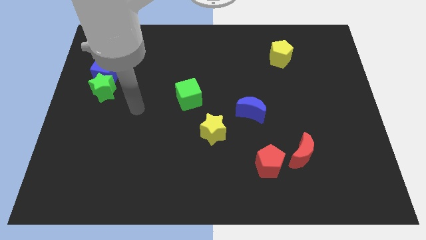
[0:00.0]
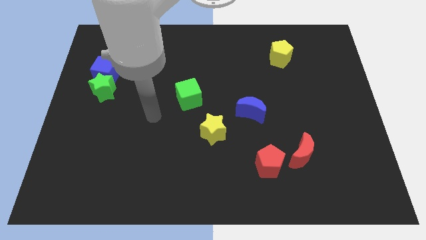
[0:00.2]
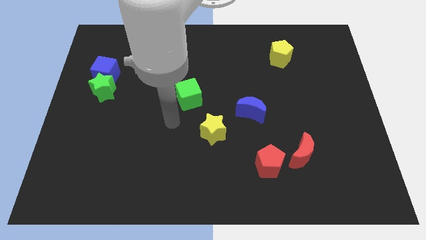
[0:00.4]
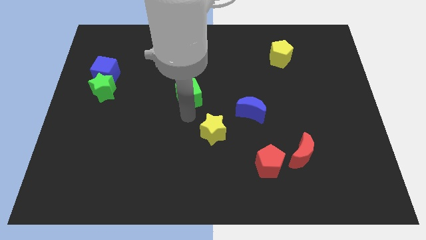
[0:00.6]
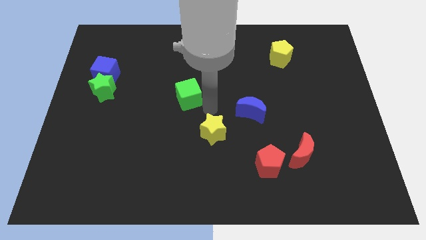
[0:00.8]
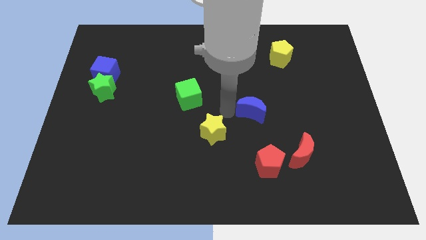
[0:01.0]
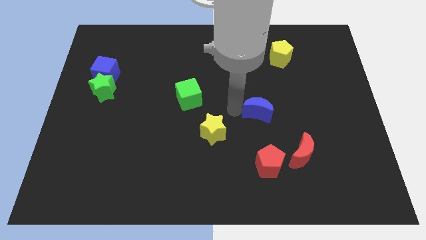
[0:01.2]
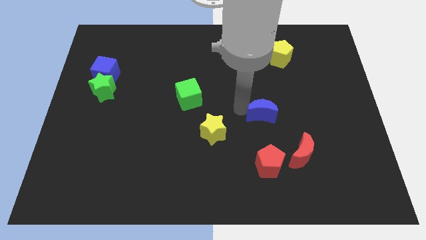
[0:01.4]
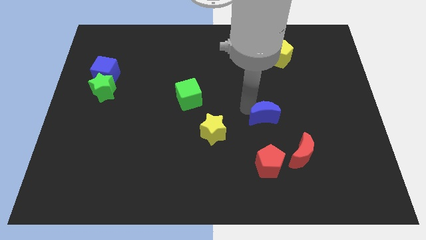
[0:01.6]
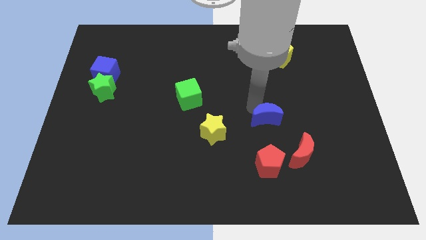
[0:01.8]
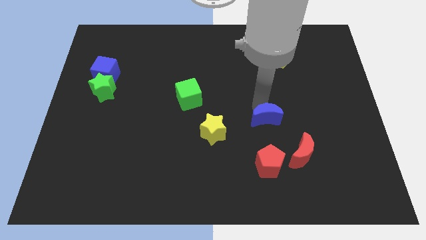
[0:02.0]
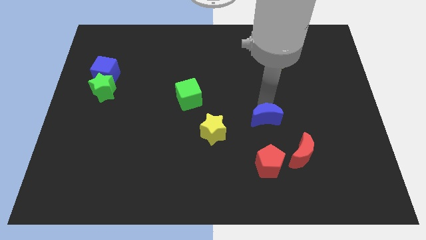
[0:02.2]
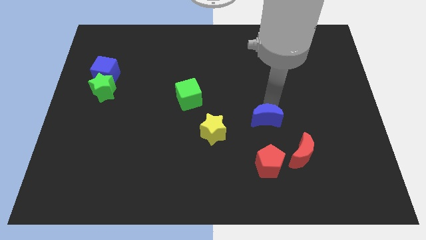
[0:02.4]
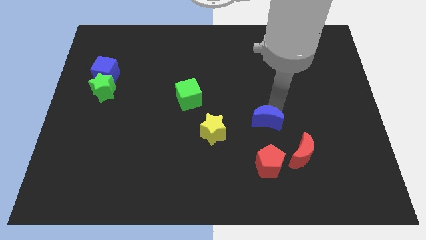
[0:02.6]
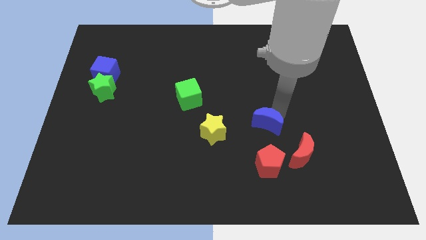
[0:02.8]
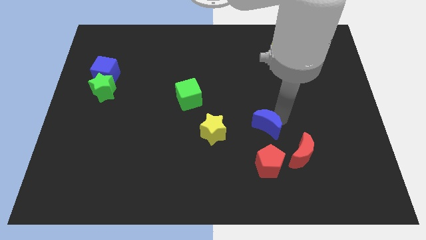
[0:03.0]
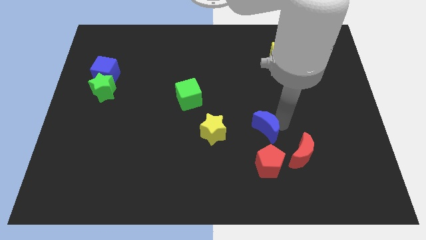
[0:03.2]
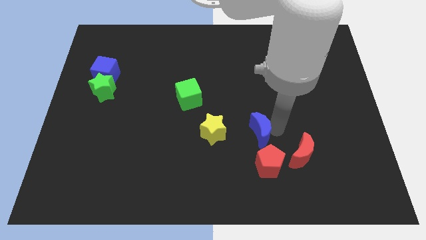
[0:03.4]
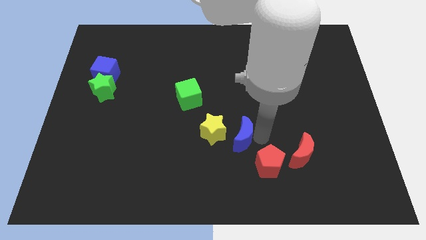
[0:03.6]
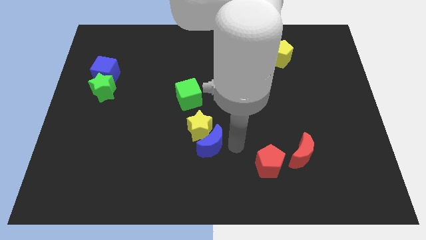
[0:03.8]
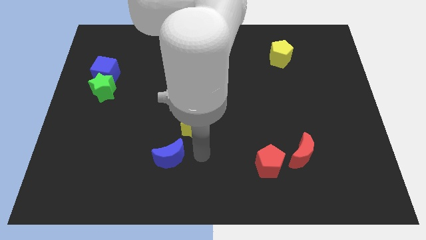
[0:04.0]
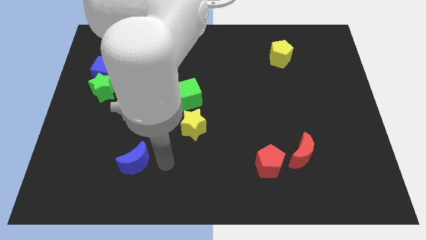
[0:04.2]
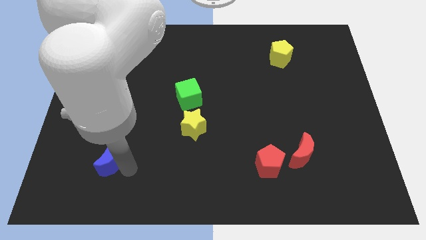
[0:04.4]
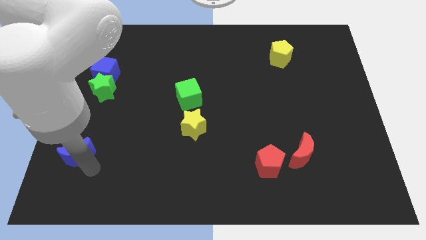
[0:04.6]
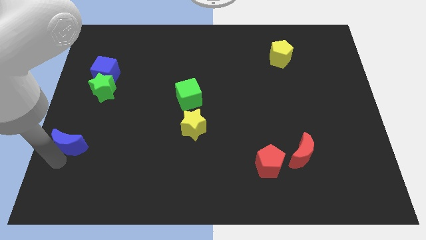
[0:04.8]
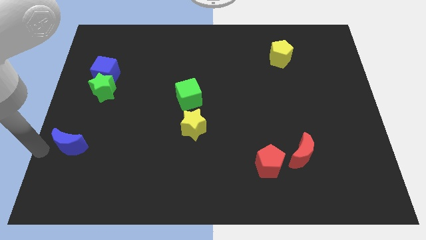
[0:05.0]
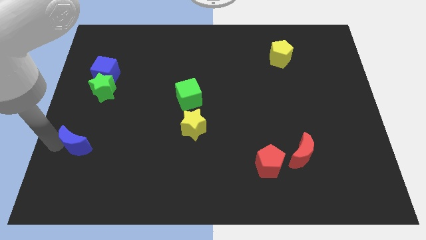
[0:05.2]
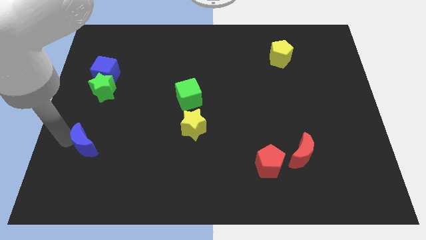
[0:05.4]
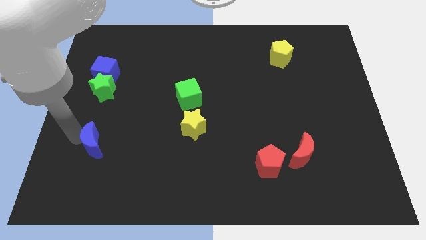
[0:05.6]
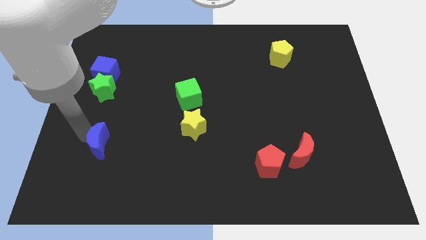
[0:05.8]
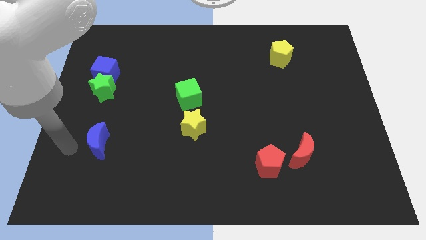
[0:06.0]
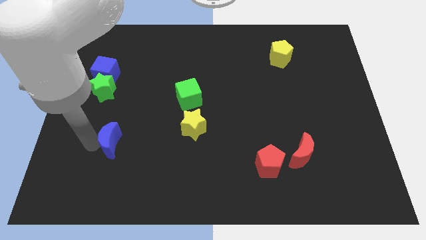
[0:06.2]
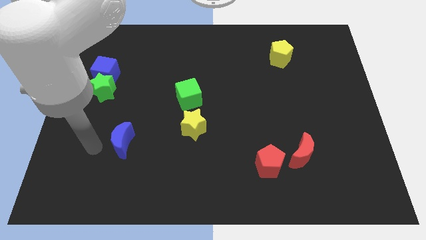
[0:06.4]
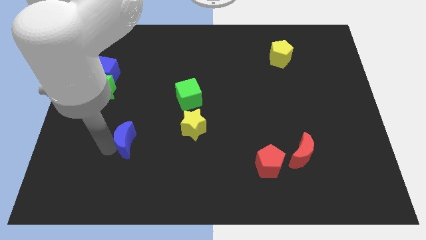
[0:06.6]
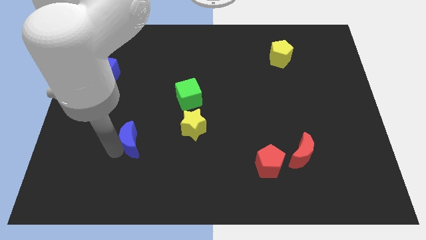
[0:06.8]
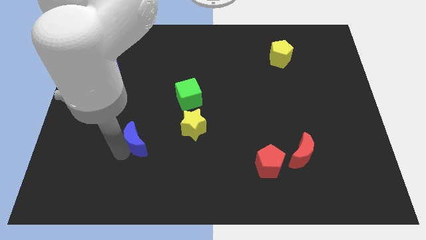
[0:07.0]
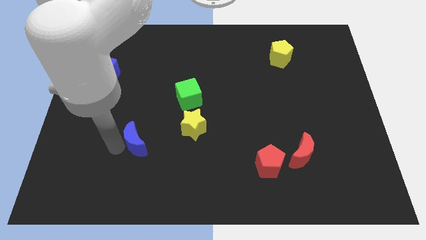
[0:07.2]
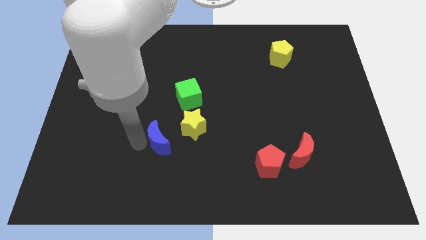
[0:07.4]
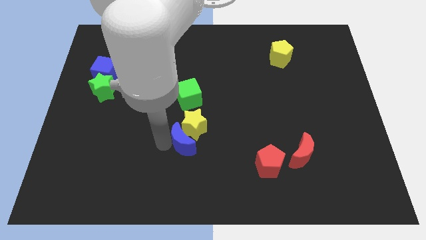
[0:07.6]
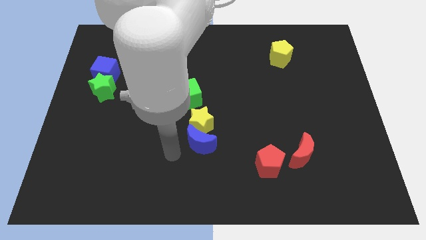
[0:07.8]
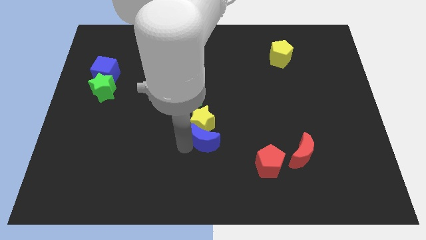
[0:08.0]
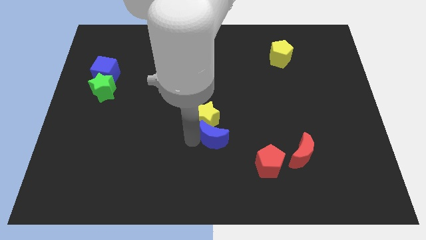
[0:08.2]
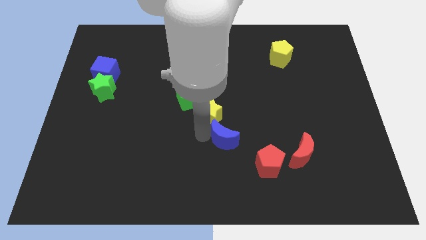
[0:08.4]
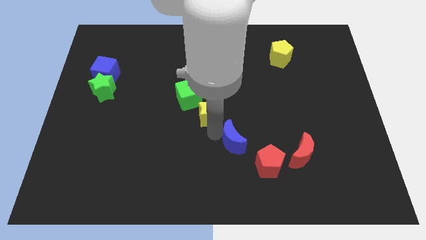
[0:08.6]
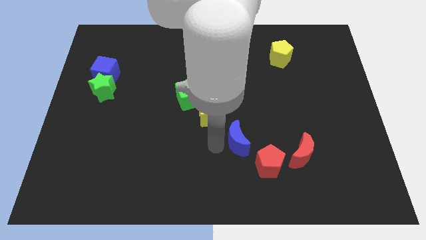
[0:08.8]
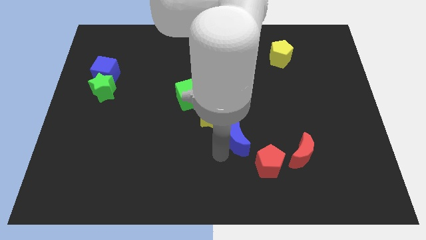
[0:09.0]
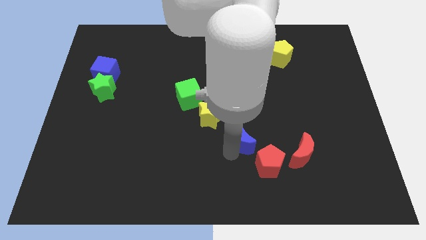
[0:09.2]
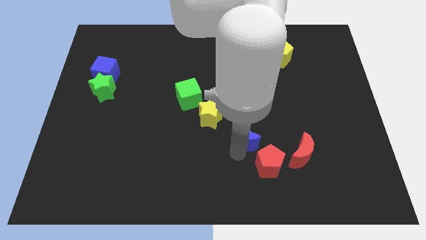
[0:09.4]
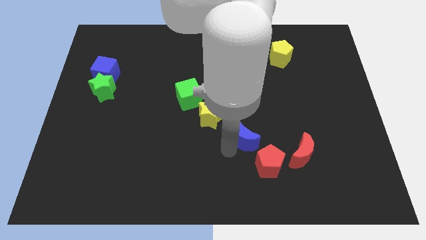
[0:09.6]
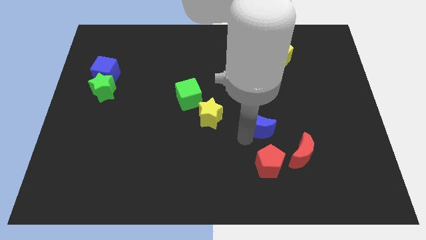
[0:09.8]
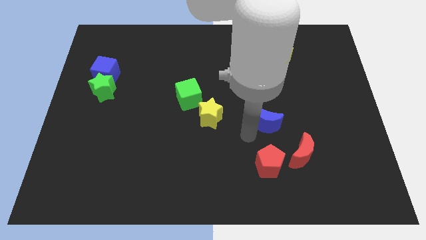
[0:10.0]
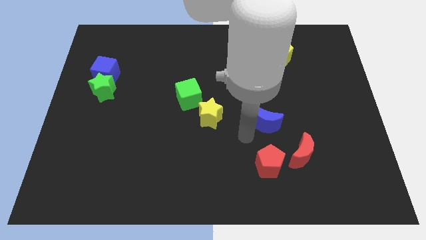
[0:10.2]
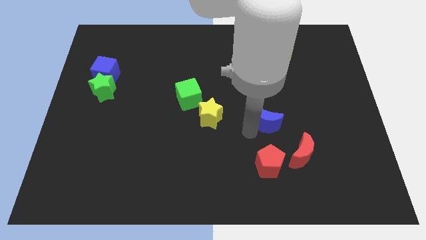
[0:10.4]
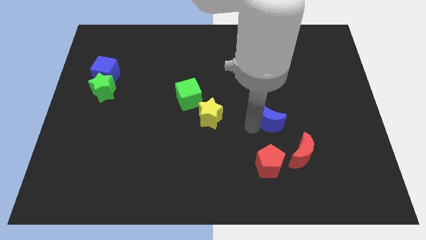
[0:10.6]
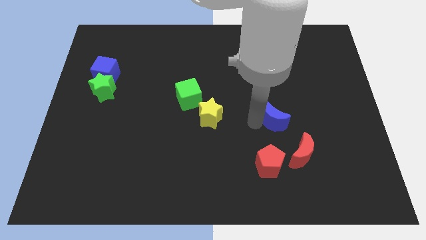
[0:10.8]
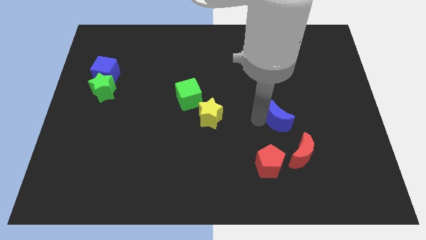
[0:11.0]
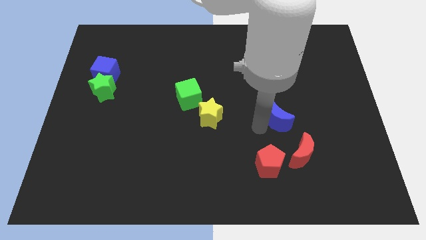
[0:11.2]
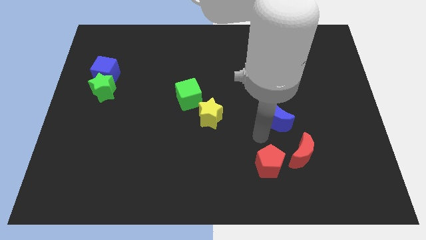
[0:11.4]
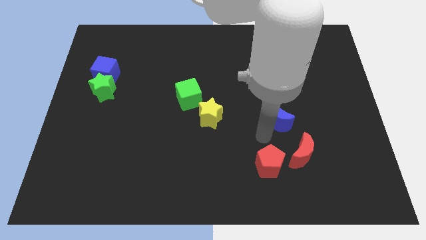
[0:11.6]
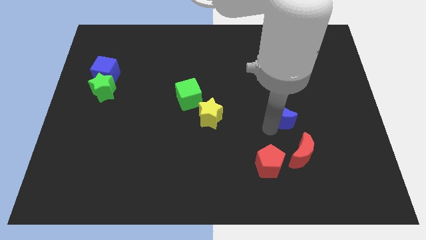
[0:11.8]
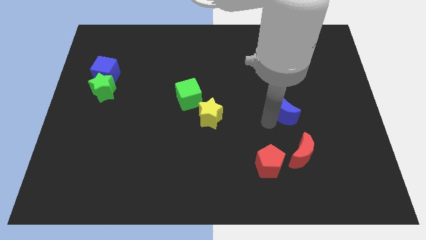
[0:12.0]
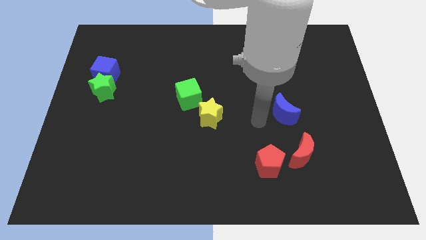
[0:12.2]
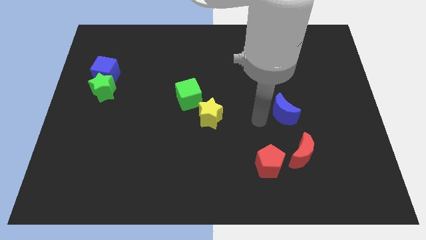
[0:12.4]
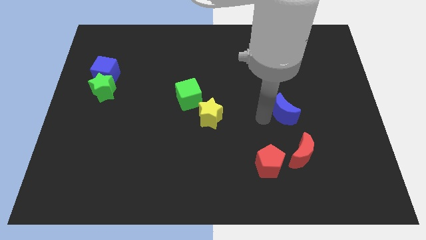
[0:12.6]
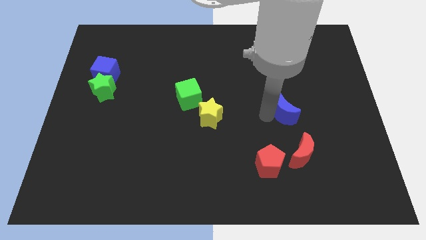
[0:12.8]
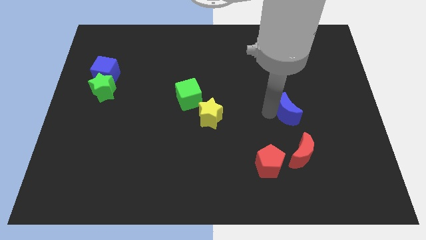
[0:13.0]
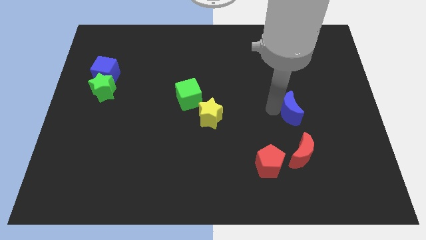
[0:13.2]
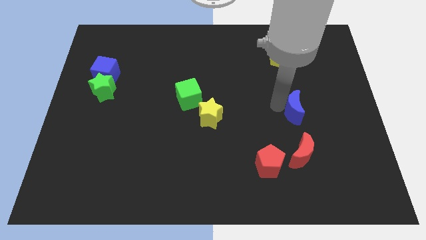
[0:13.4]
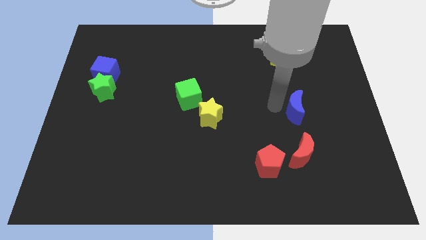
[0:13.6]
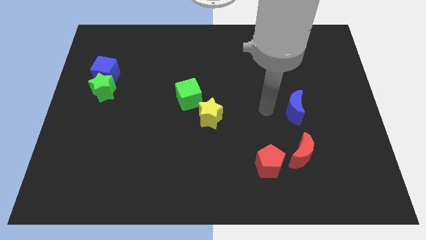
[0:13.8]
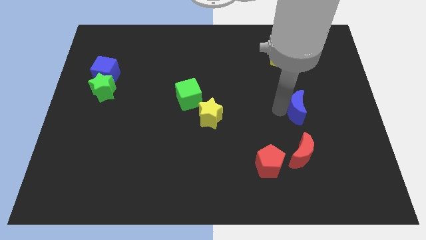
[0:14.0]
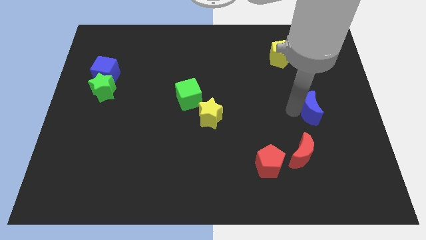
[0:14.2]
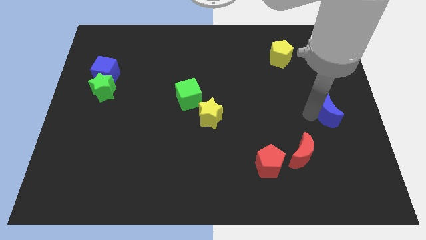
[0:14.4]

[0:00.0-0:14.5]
slide the blue moon to the right side
